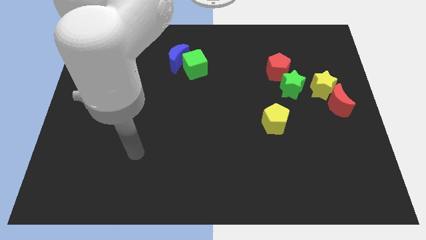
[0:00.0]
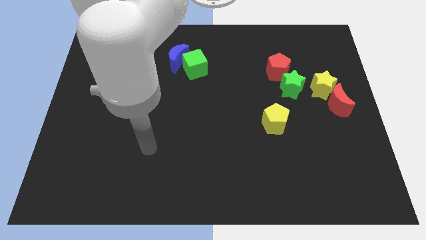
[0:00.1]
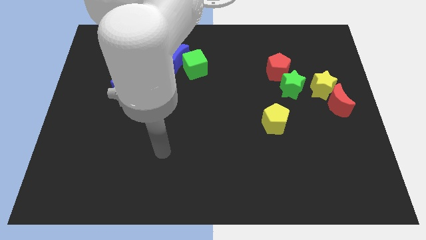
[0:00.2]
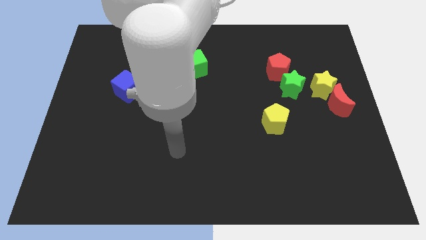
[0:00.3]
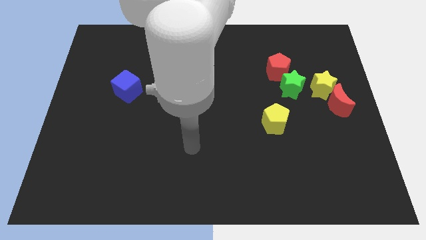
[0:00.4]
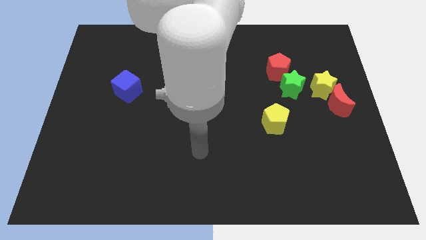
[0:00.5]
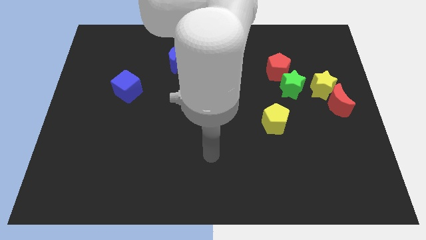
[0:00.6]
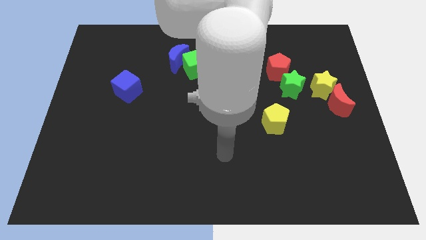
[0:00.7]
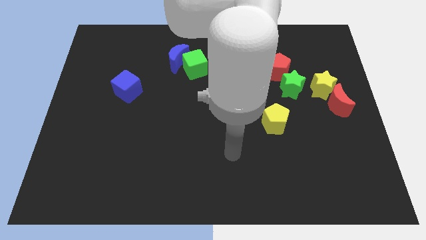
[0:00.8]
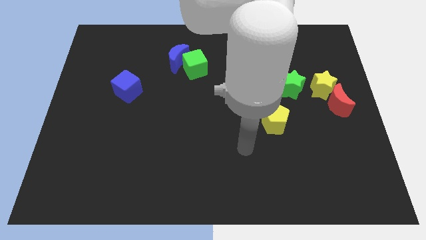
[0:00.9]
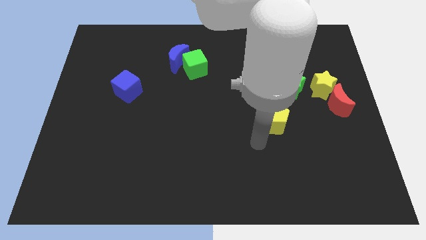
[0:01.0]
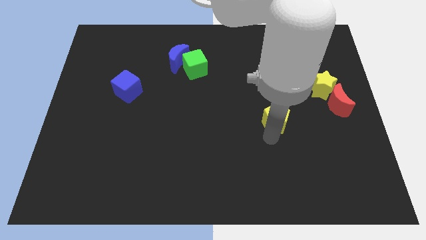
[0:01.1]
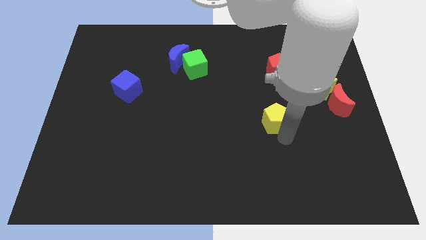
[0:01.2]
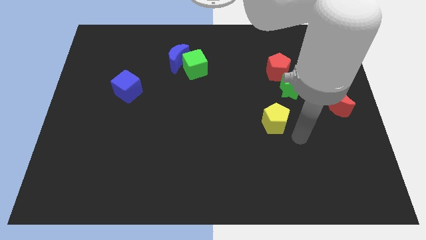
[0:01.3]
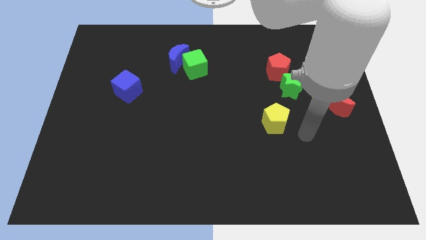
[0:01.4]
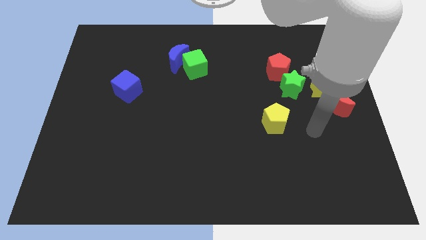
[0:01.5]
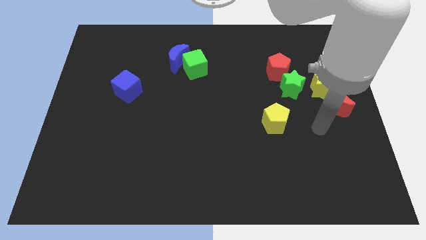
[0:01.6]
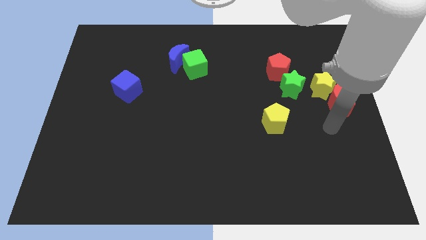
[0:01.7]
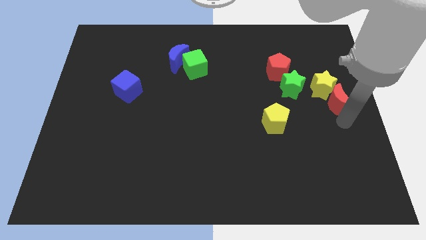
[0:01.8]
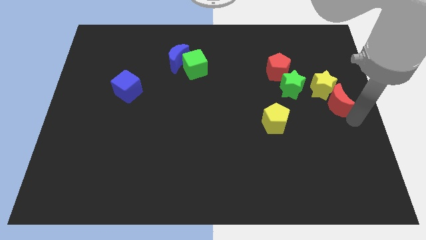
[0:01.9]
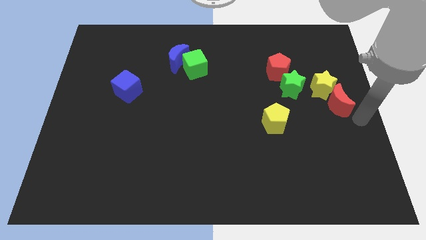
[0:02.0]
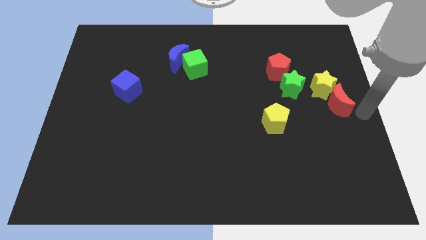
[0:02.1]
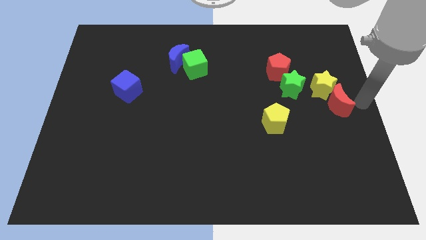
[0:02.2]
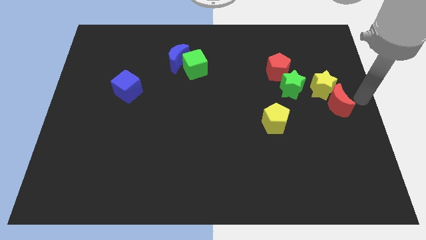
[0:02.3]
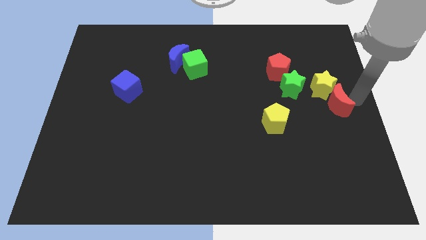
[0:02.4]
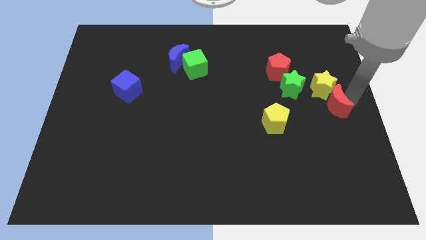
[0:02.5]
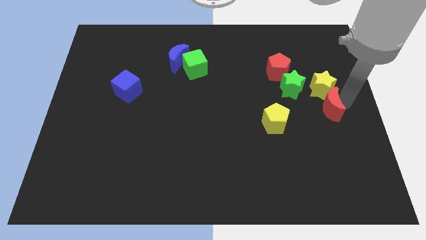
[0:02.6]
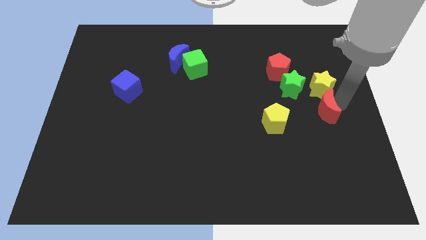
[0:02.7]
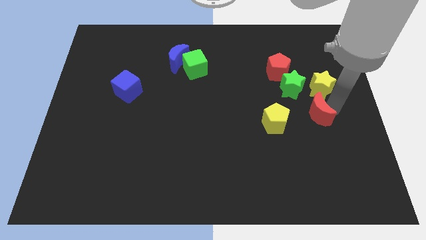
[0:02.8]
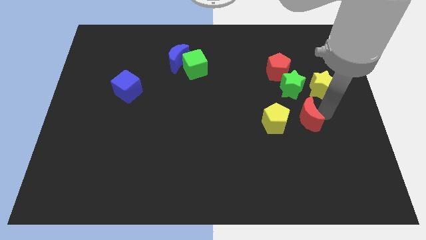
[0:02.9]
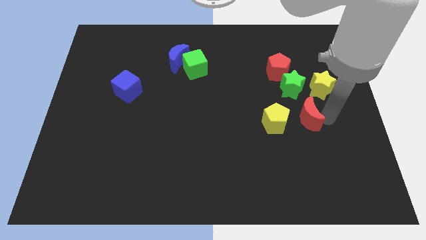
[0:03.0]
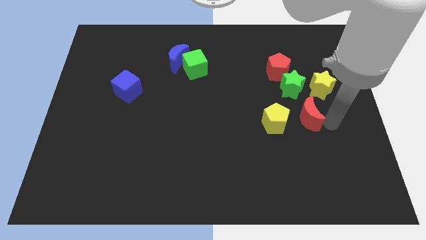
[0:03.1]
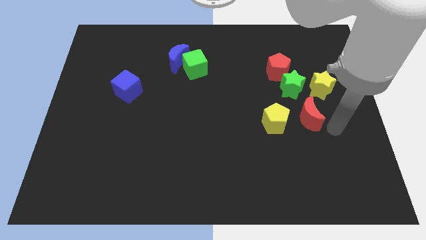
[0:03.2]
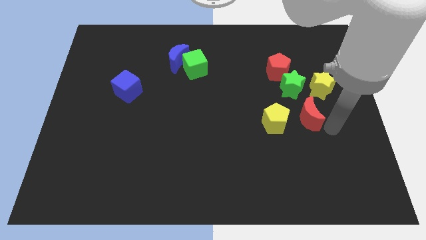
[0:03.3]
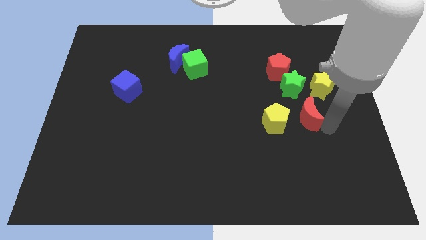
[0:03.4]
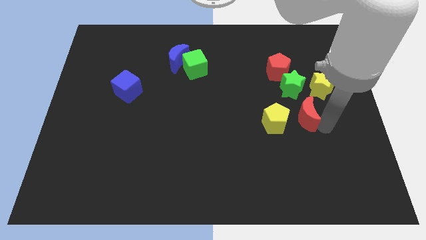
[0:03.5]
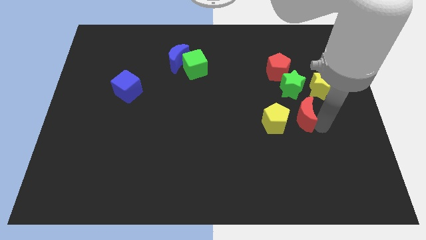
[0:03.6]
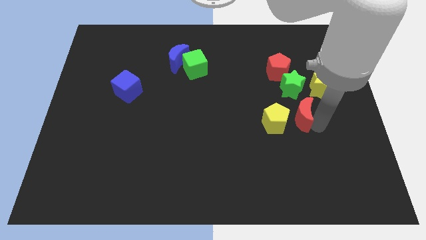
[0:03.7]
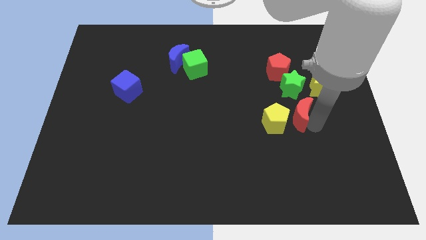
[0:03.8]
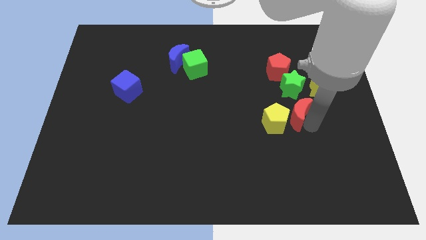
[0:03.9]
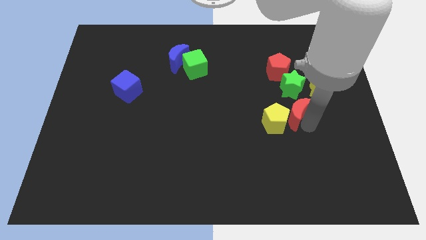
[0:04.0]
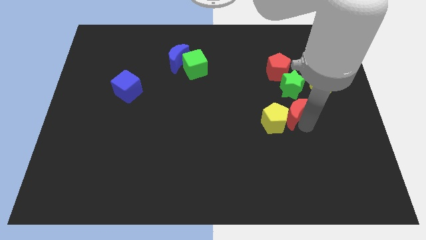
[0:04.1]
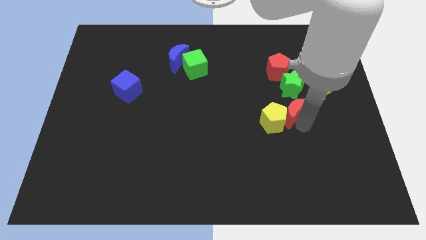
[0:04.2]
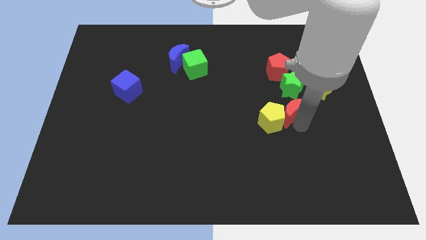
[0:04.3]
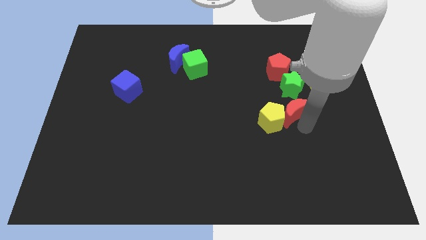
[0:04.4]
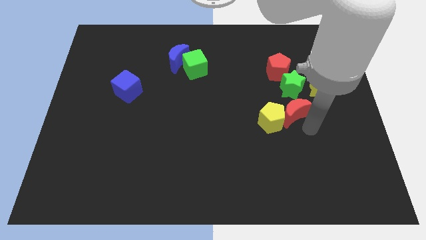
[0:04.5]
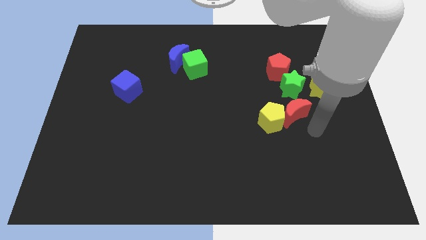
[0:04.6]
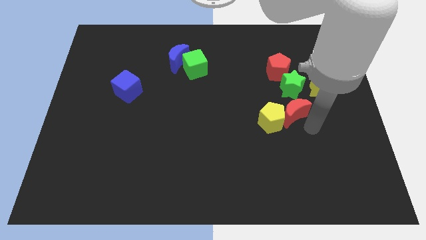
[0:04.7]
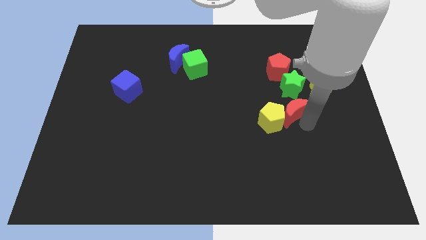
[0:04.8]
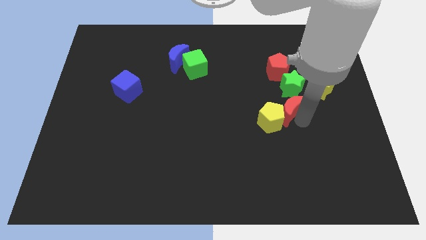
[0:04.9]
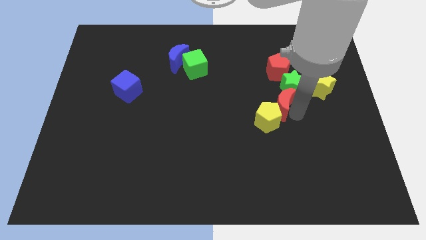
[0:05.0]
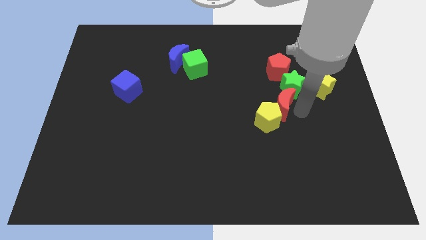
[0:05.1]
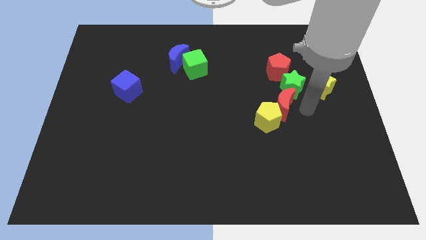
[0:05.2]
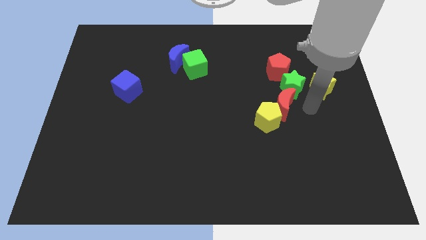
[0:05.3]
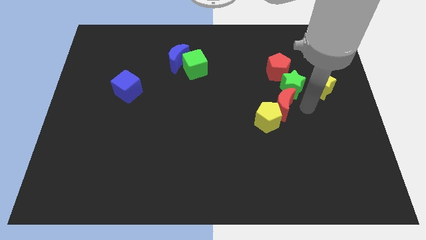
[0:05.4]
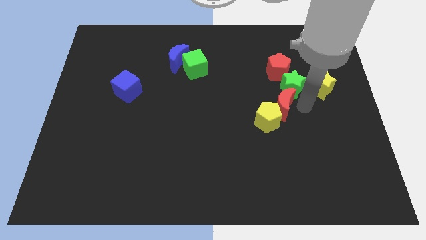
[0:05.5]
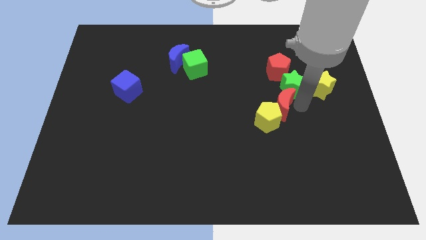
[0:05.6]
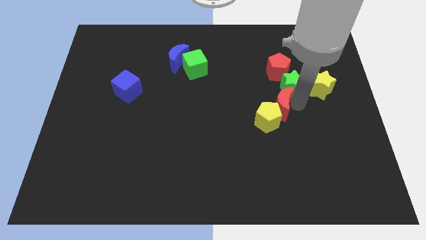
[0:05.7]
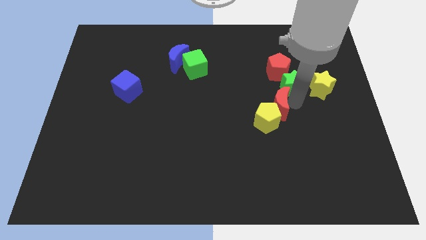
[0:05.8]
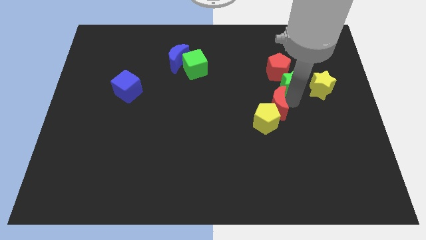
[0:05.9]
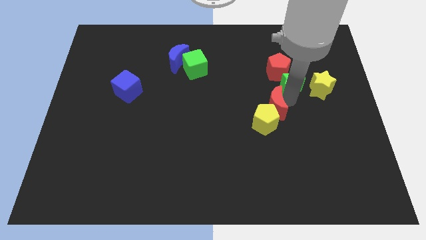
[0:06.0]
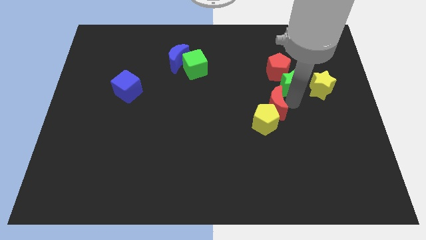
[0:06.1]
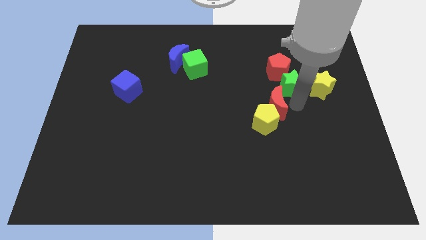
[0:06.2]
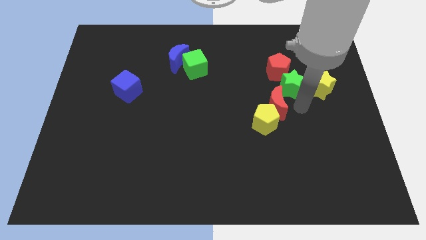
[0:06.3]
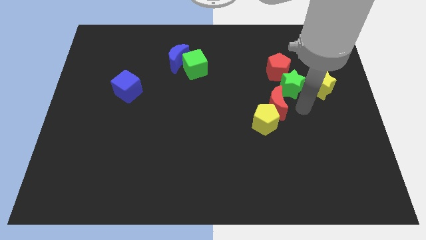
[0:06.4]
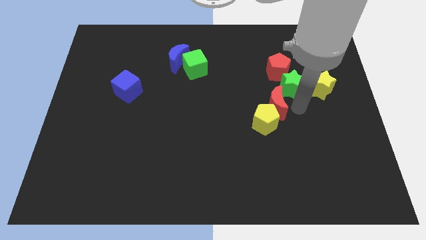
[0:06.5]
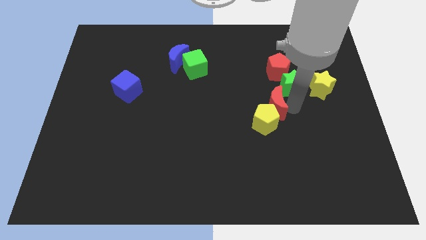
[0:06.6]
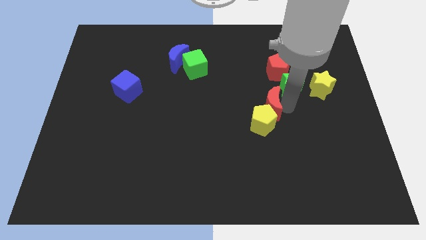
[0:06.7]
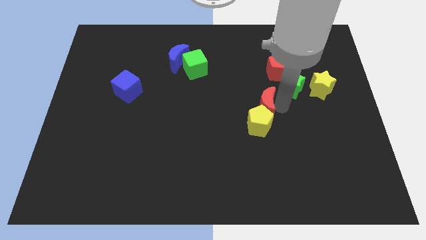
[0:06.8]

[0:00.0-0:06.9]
slide the red moon to the middle of the board
